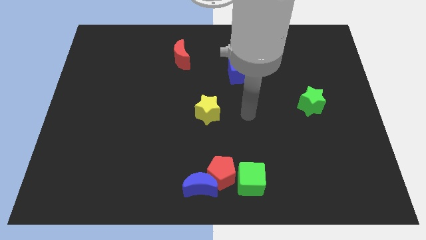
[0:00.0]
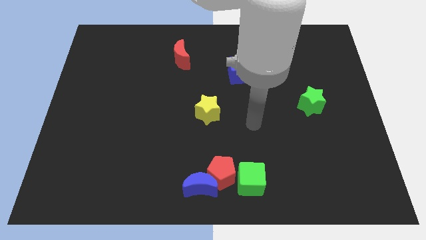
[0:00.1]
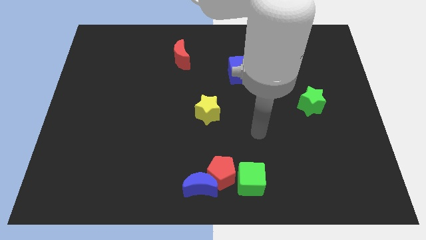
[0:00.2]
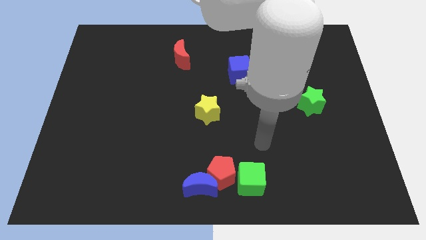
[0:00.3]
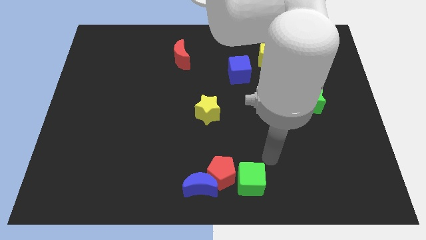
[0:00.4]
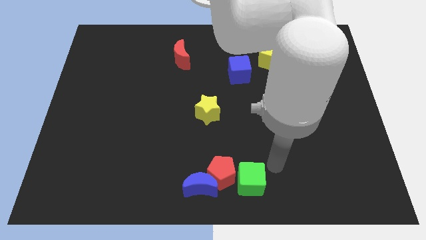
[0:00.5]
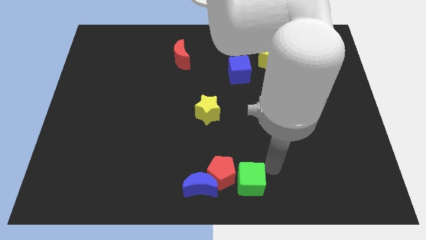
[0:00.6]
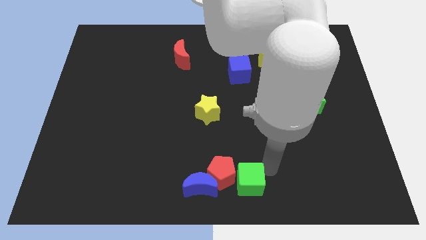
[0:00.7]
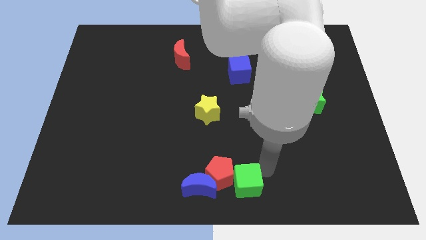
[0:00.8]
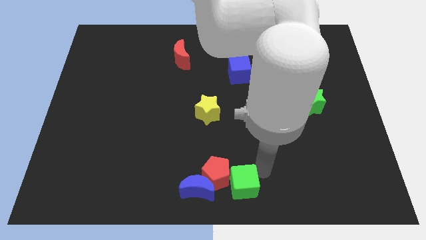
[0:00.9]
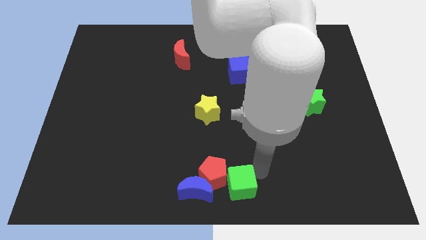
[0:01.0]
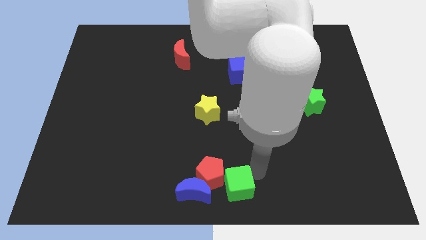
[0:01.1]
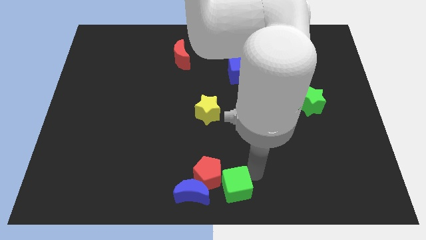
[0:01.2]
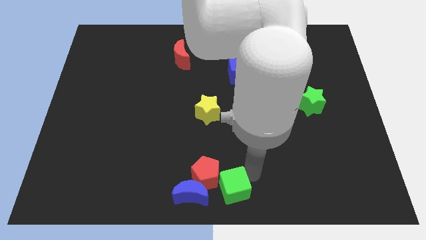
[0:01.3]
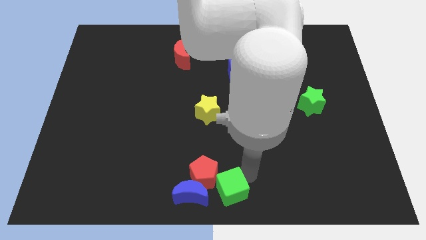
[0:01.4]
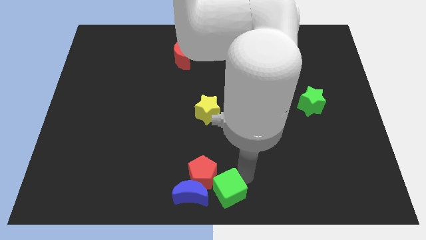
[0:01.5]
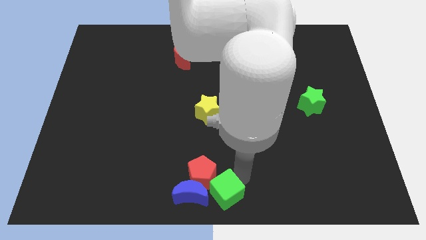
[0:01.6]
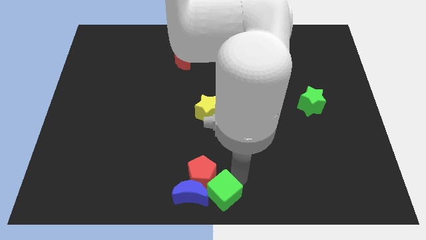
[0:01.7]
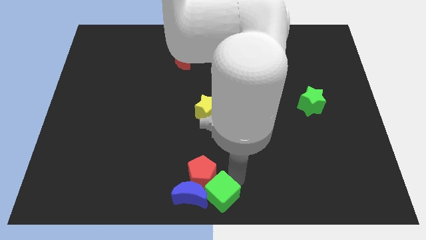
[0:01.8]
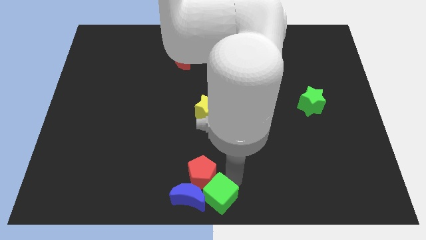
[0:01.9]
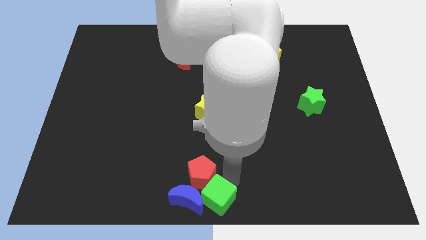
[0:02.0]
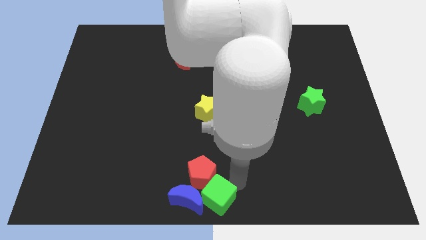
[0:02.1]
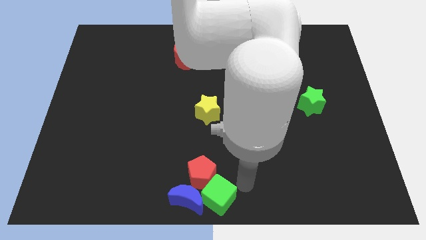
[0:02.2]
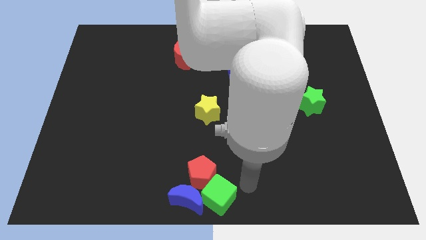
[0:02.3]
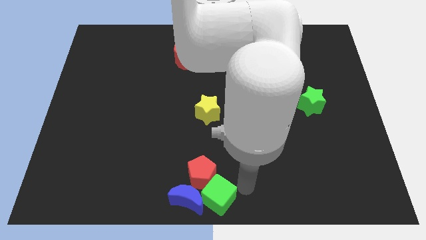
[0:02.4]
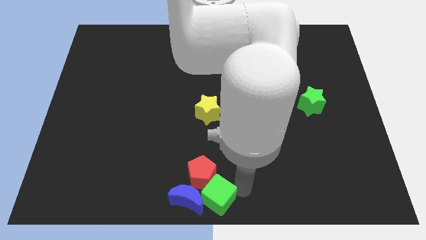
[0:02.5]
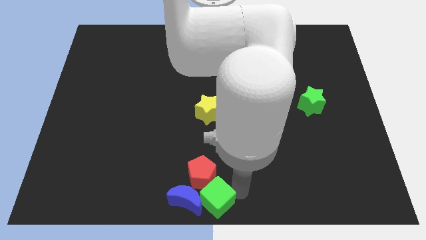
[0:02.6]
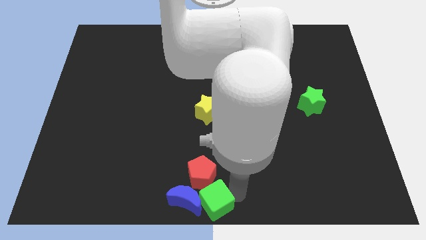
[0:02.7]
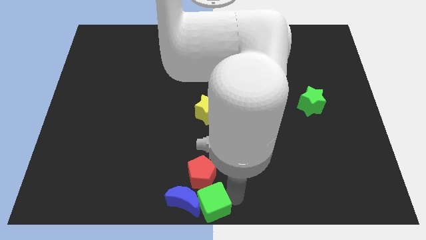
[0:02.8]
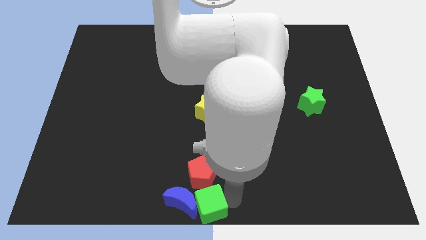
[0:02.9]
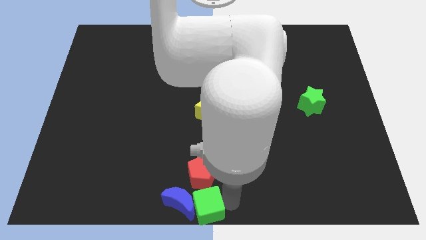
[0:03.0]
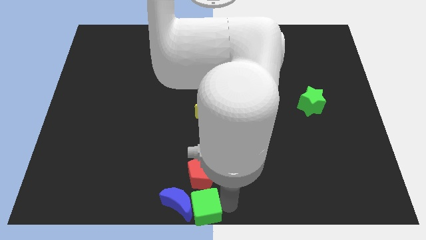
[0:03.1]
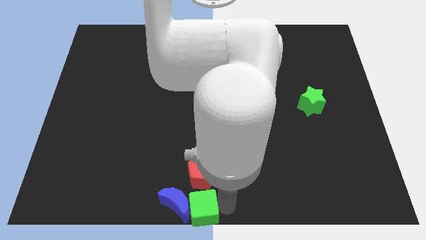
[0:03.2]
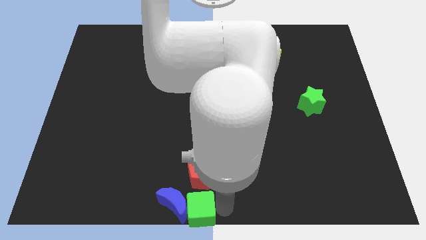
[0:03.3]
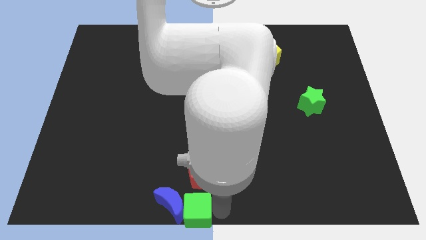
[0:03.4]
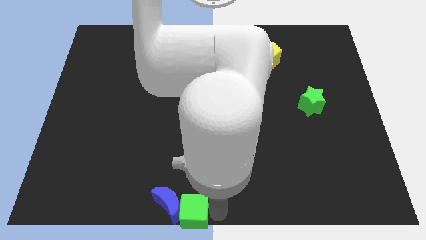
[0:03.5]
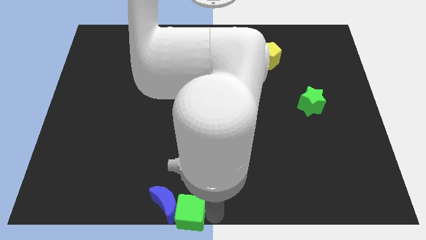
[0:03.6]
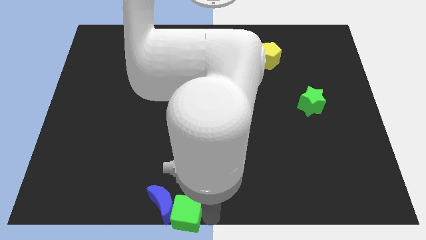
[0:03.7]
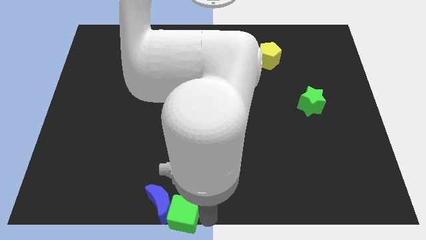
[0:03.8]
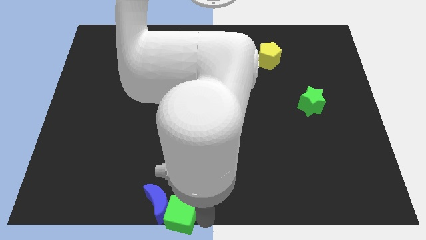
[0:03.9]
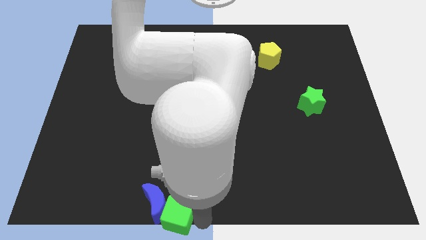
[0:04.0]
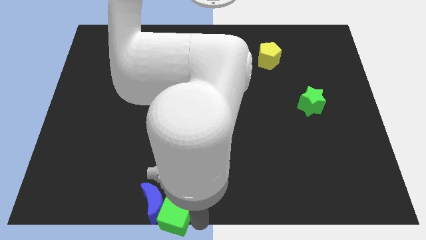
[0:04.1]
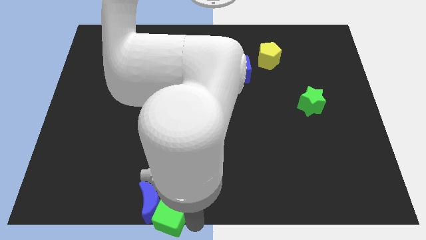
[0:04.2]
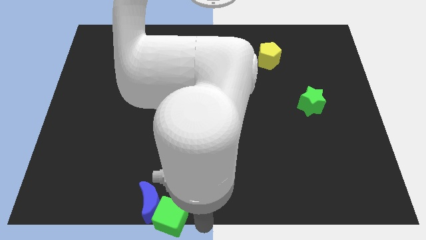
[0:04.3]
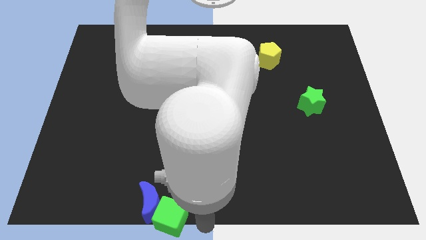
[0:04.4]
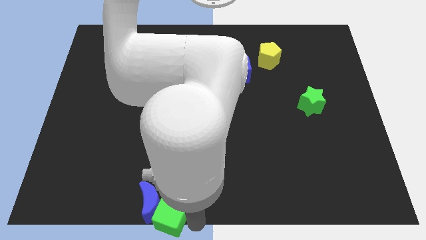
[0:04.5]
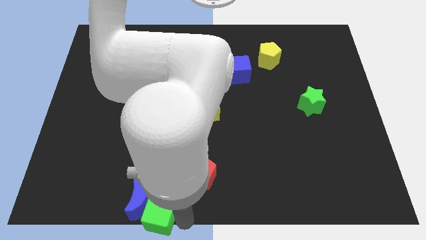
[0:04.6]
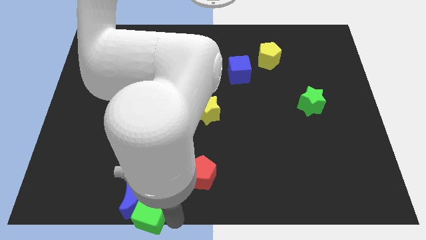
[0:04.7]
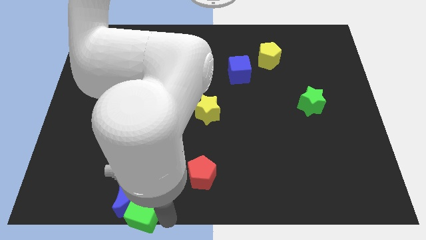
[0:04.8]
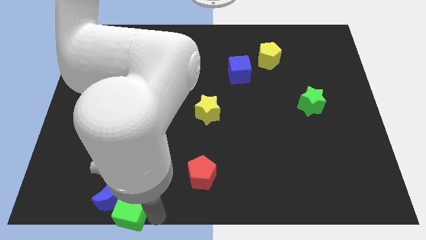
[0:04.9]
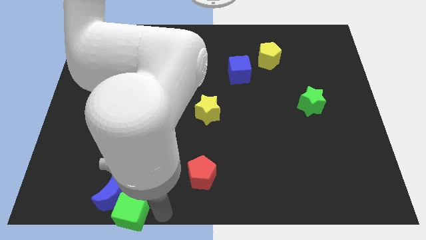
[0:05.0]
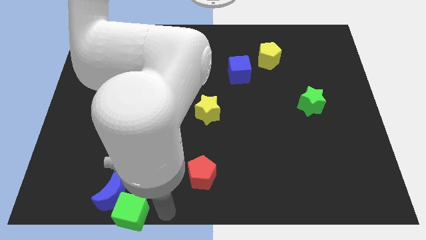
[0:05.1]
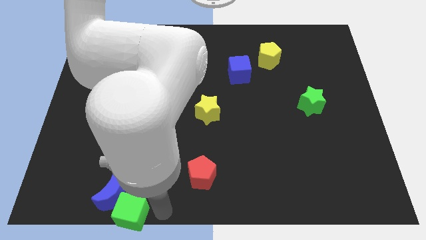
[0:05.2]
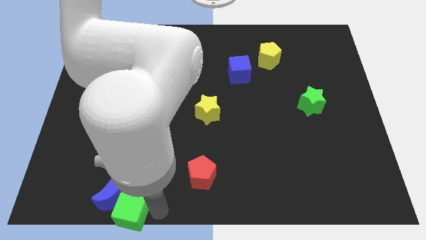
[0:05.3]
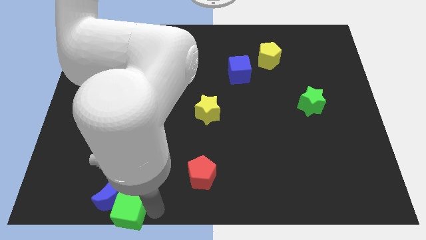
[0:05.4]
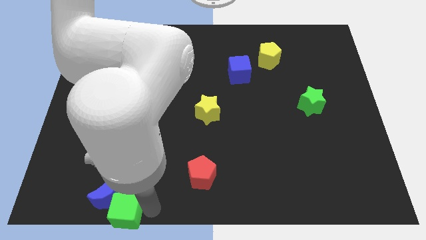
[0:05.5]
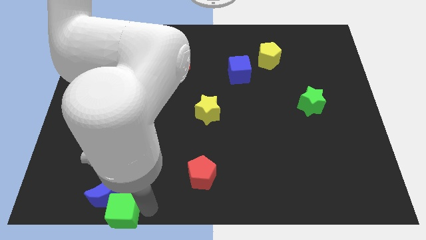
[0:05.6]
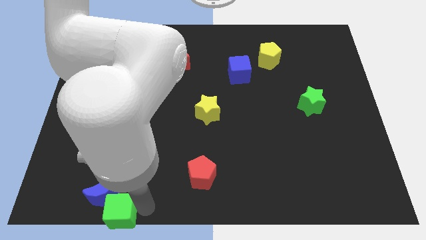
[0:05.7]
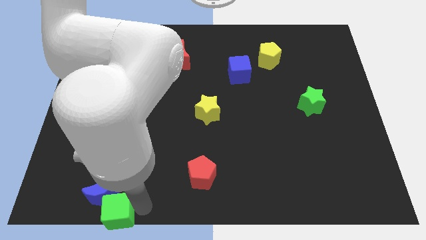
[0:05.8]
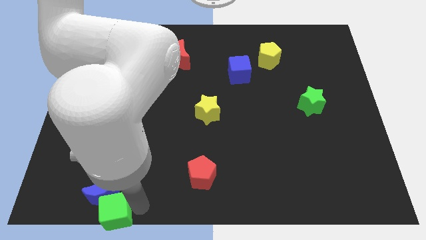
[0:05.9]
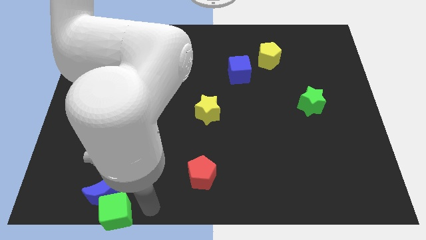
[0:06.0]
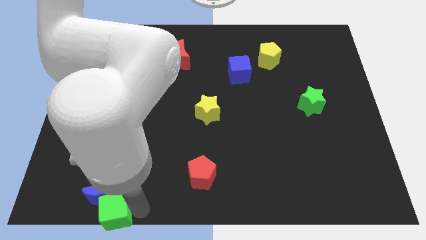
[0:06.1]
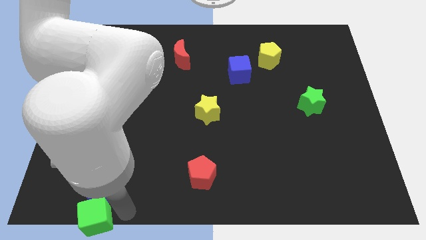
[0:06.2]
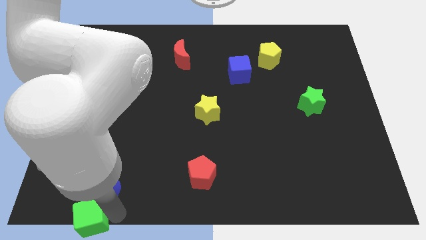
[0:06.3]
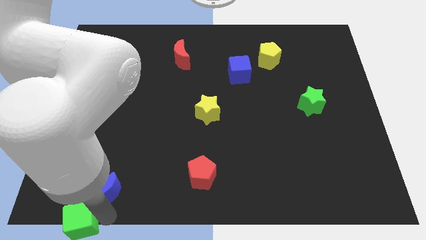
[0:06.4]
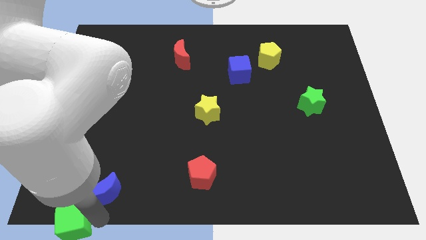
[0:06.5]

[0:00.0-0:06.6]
push the green cube to the bottom left of the board
